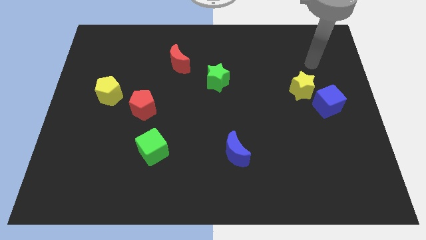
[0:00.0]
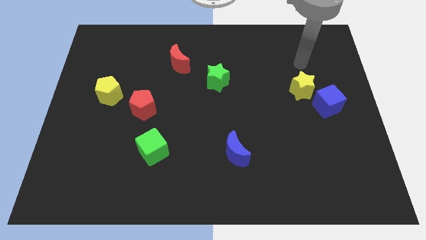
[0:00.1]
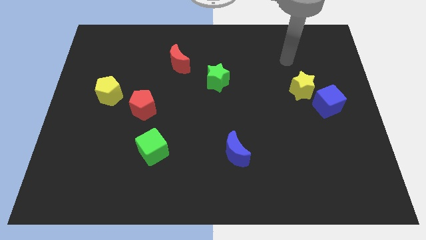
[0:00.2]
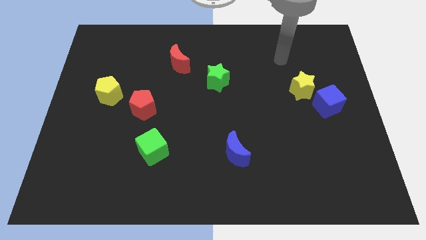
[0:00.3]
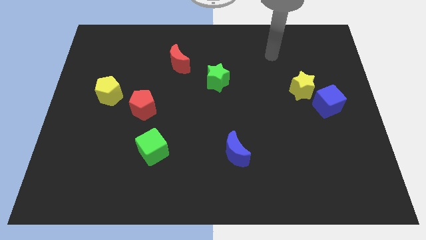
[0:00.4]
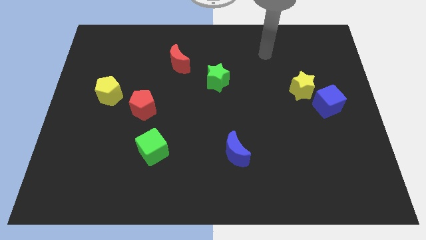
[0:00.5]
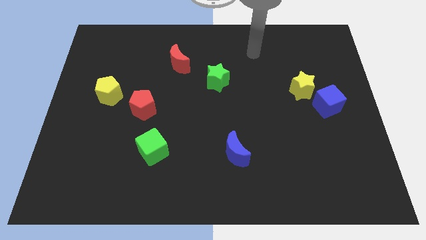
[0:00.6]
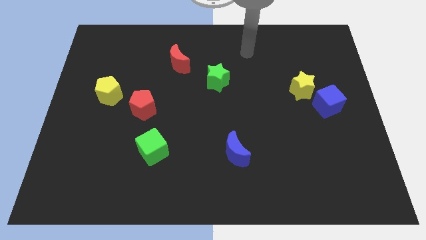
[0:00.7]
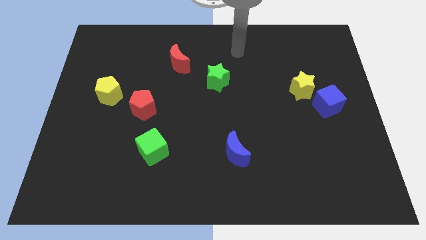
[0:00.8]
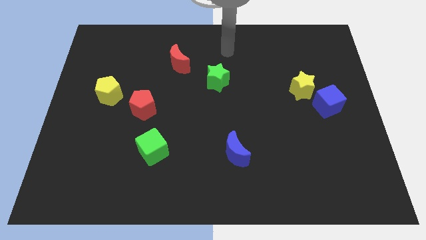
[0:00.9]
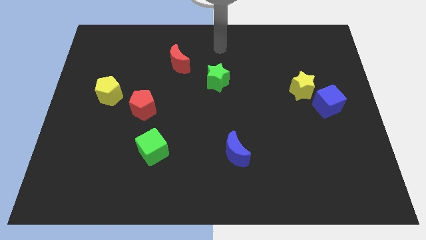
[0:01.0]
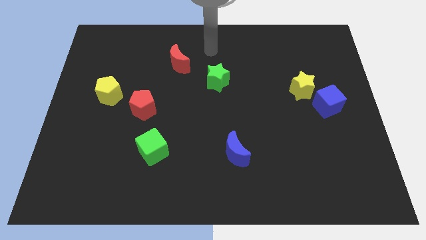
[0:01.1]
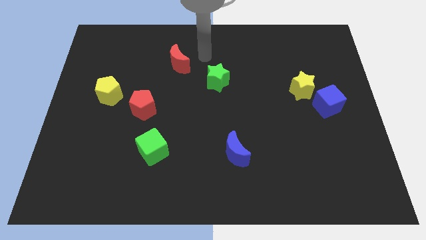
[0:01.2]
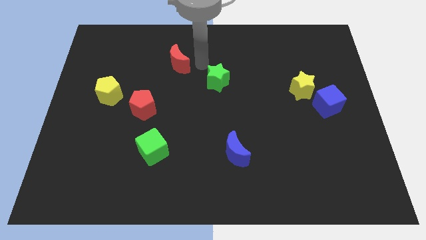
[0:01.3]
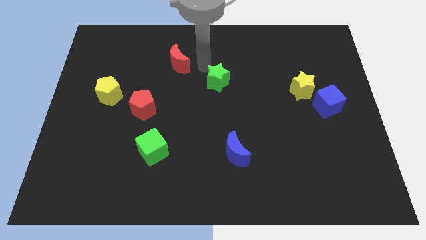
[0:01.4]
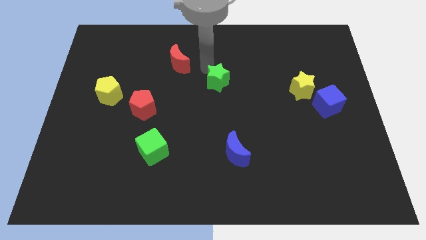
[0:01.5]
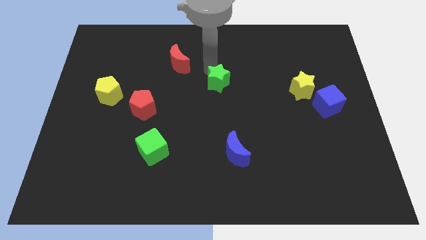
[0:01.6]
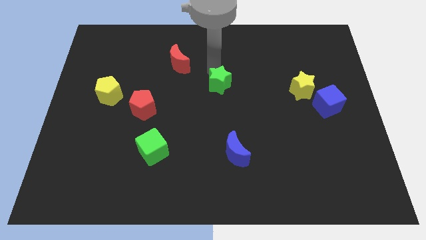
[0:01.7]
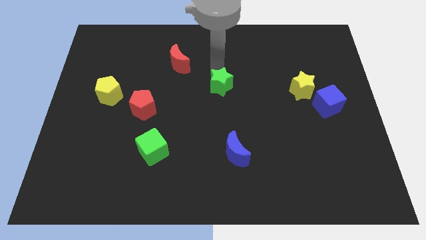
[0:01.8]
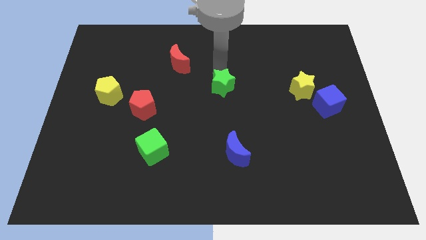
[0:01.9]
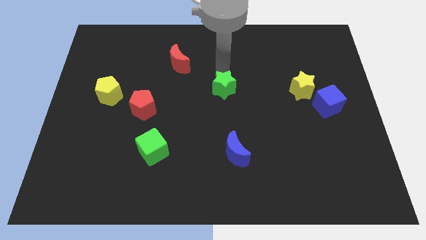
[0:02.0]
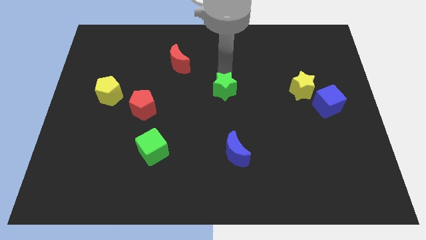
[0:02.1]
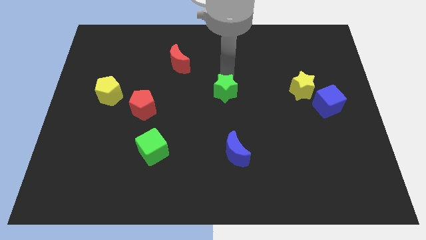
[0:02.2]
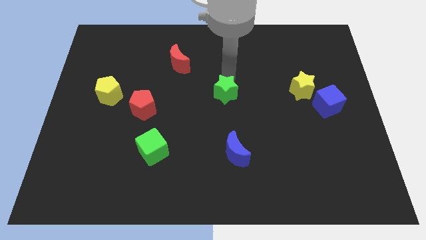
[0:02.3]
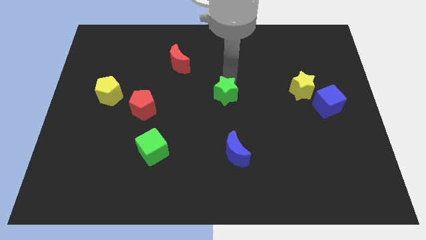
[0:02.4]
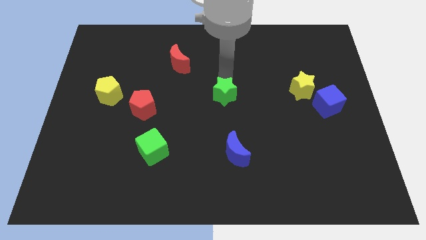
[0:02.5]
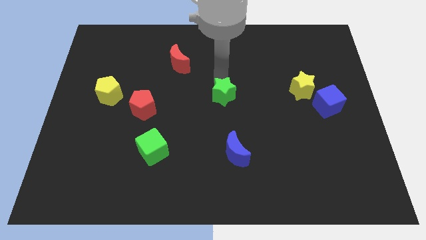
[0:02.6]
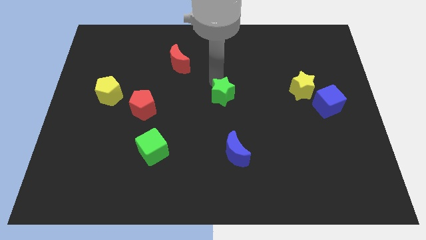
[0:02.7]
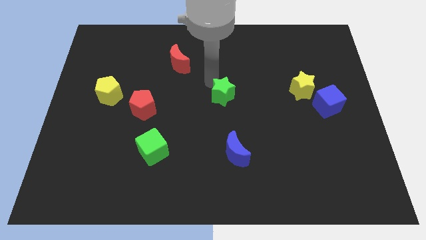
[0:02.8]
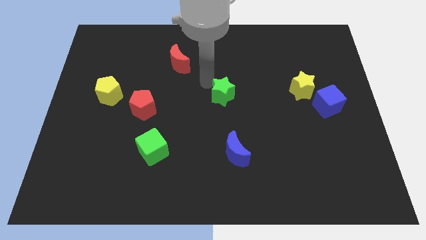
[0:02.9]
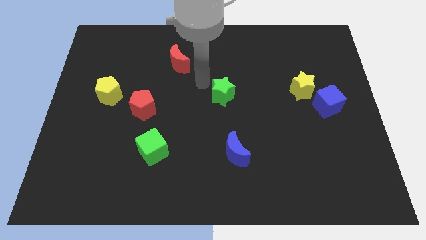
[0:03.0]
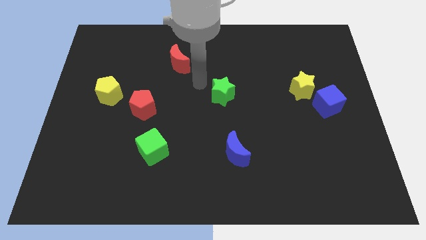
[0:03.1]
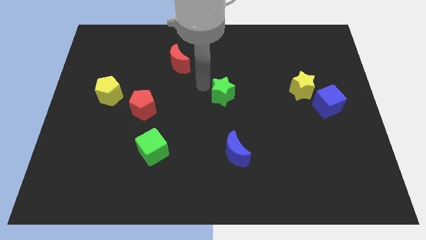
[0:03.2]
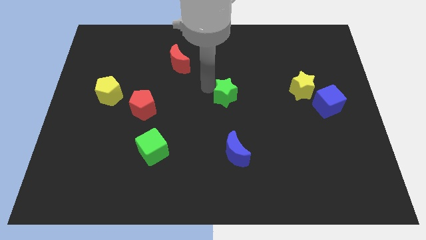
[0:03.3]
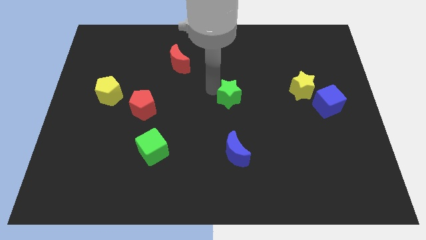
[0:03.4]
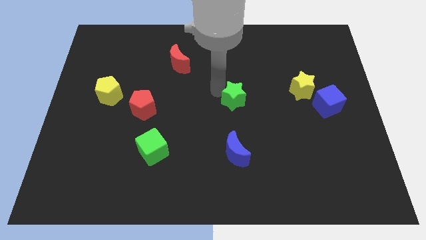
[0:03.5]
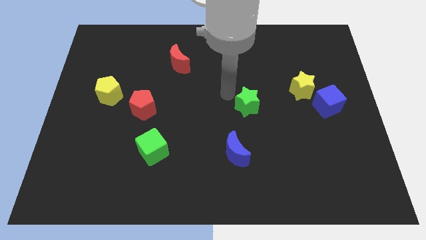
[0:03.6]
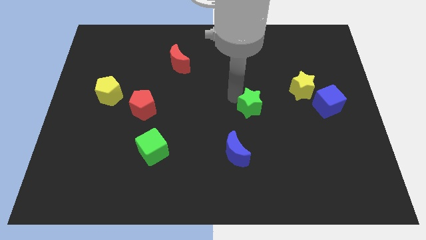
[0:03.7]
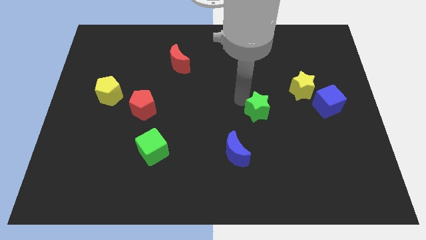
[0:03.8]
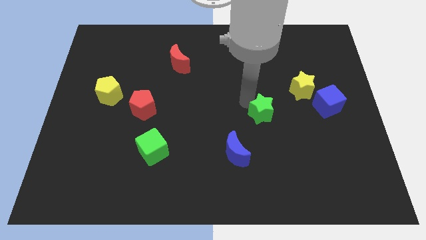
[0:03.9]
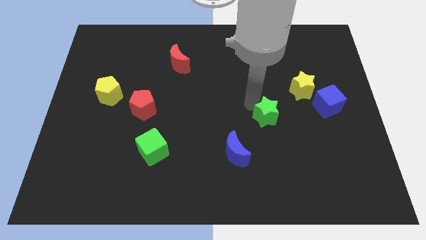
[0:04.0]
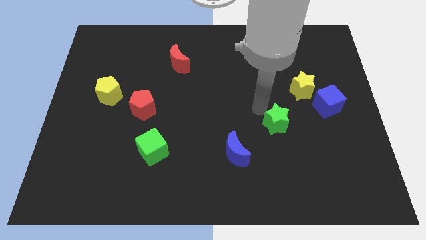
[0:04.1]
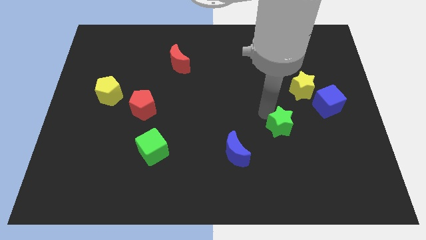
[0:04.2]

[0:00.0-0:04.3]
push the green star downwards and right

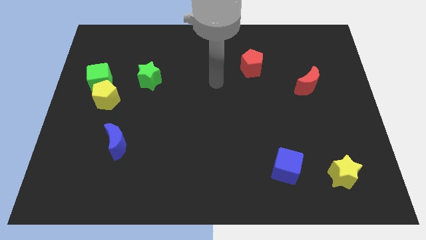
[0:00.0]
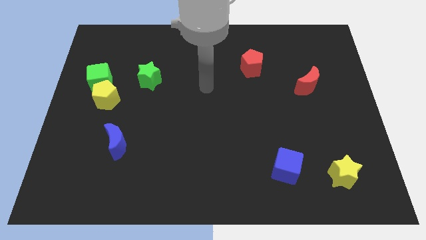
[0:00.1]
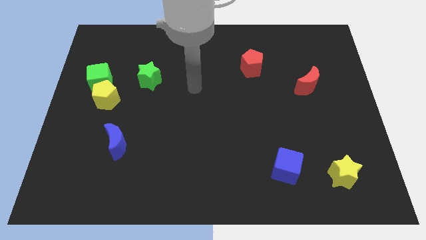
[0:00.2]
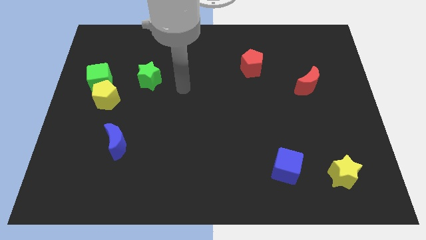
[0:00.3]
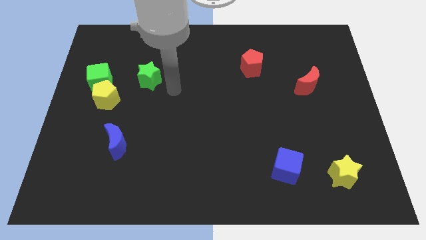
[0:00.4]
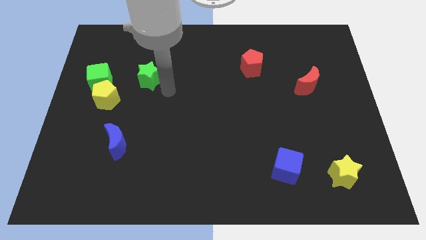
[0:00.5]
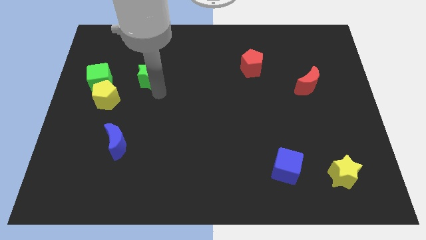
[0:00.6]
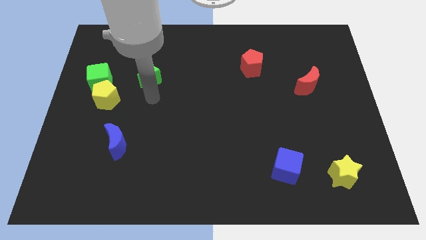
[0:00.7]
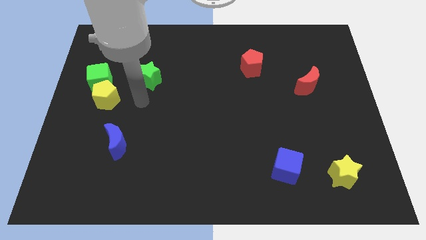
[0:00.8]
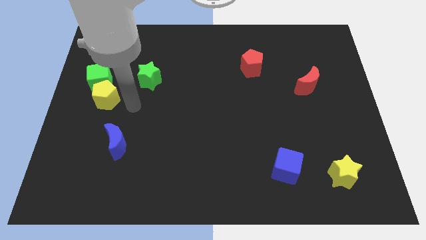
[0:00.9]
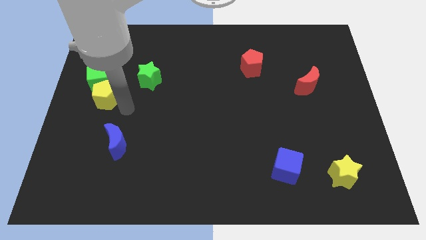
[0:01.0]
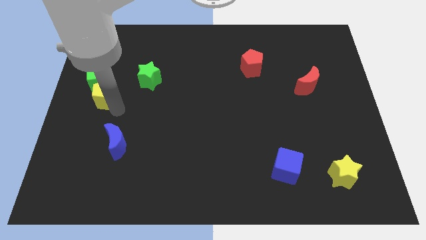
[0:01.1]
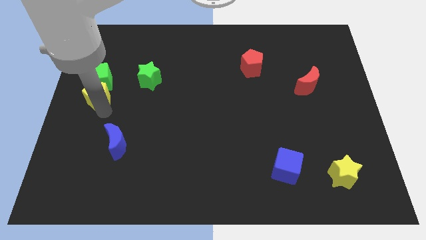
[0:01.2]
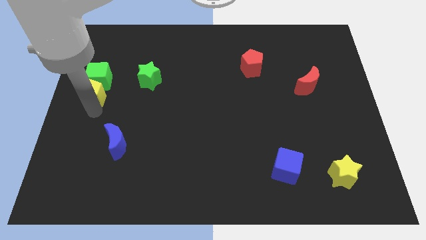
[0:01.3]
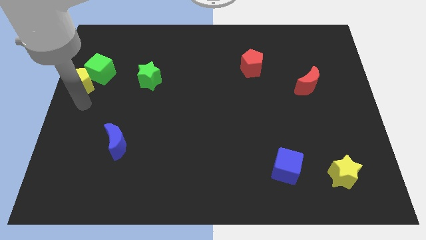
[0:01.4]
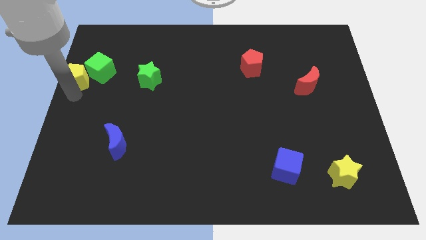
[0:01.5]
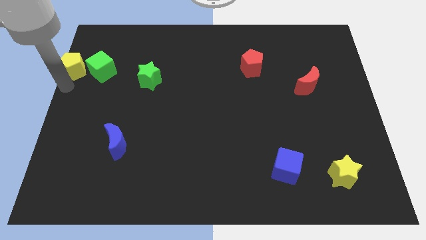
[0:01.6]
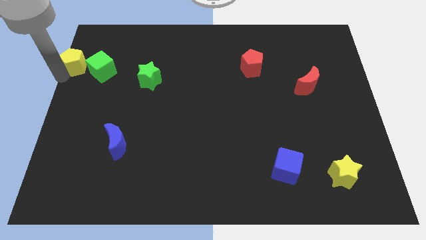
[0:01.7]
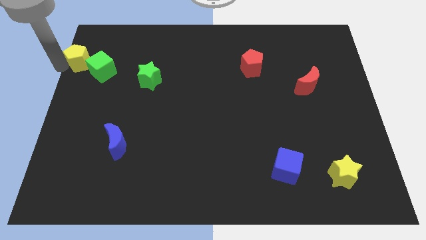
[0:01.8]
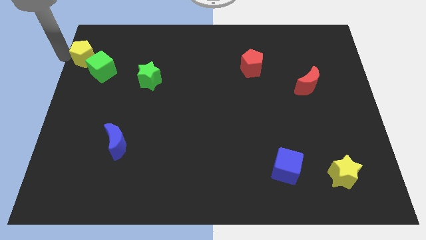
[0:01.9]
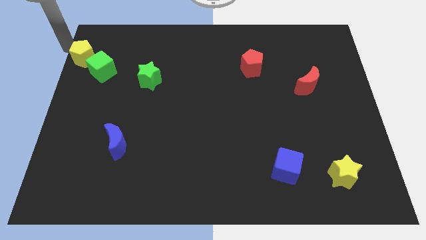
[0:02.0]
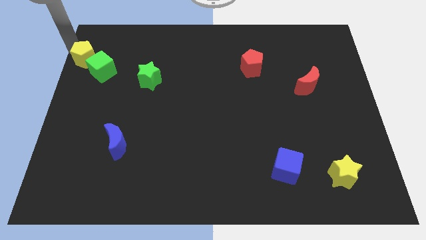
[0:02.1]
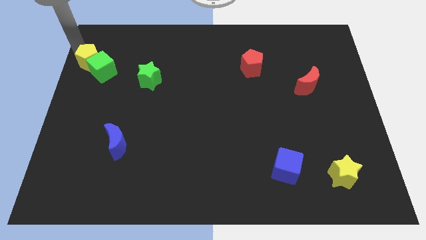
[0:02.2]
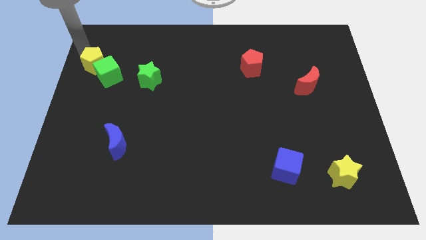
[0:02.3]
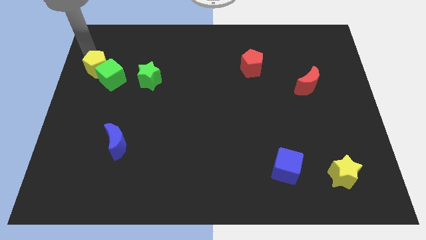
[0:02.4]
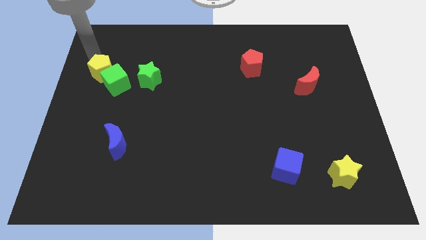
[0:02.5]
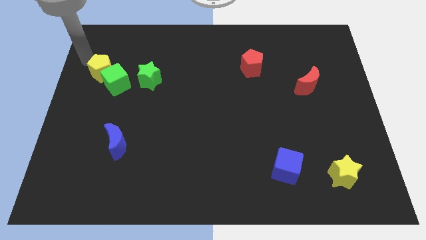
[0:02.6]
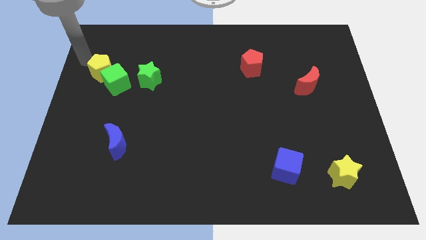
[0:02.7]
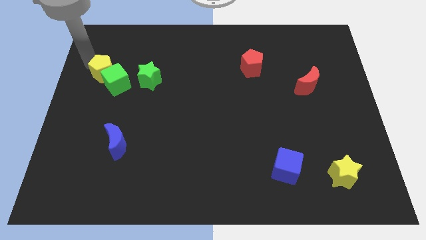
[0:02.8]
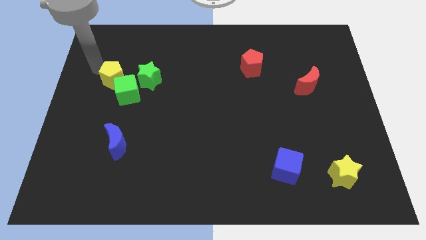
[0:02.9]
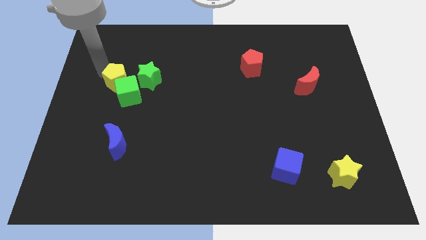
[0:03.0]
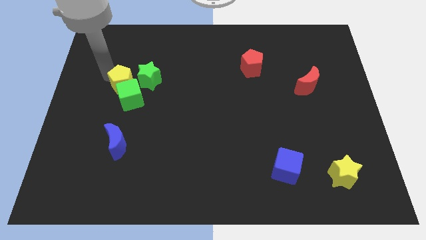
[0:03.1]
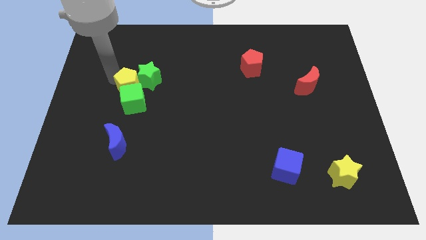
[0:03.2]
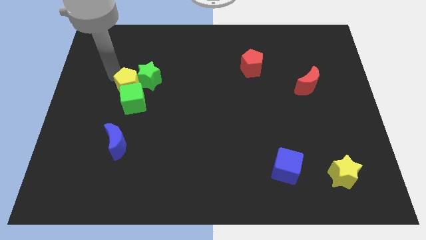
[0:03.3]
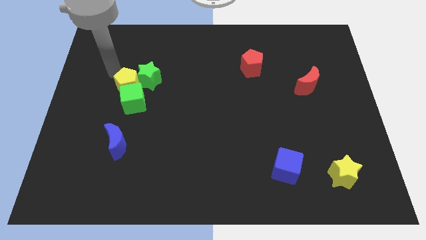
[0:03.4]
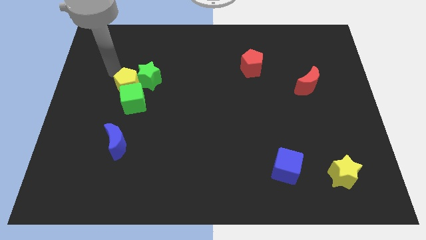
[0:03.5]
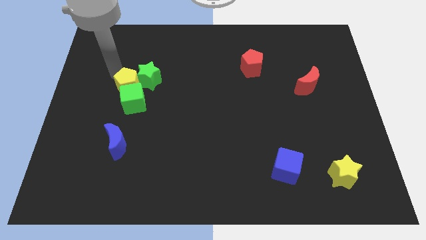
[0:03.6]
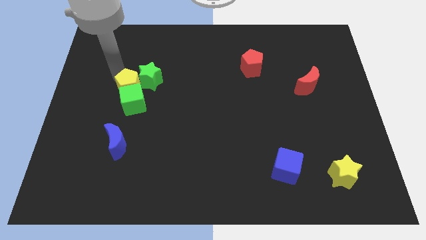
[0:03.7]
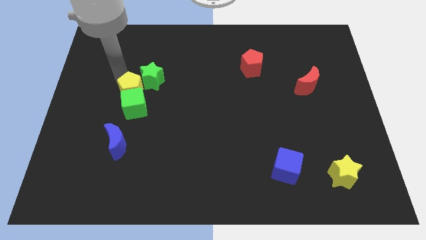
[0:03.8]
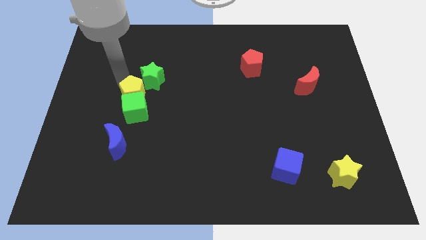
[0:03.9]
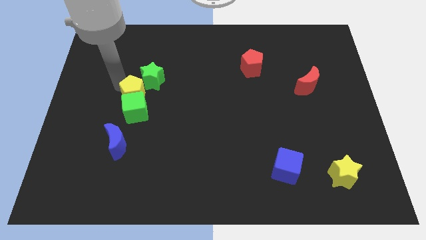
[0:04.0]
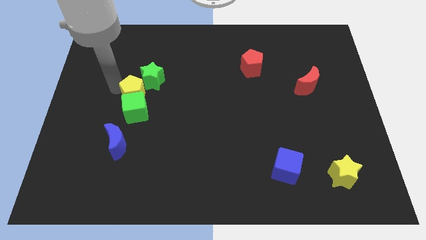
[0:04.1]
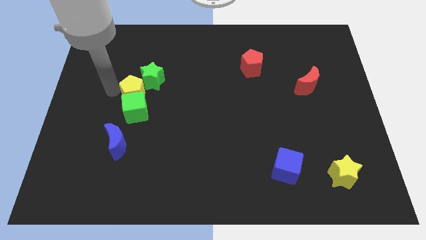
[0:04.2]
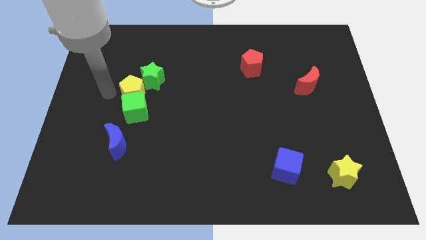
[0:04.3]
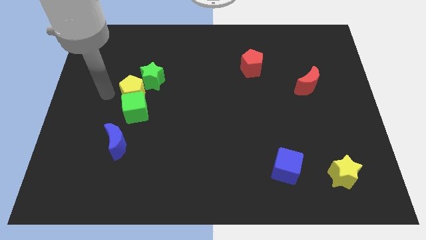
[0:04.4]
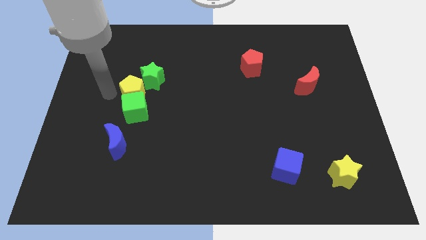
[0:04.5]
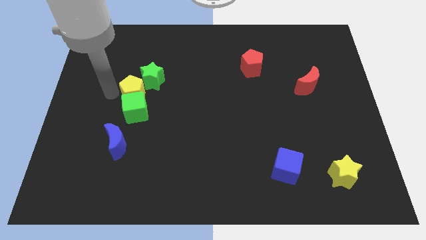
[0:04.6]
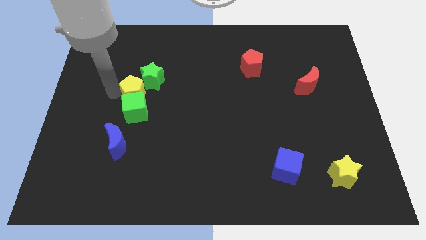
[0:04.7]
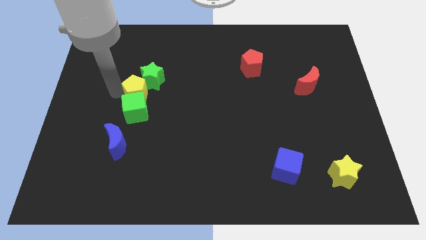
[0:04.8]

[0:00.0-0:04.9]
slightly push the yellow pentagon right
